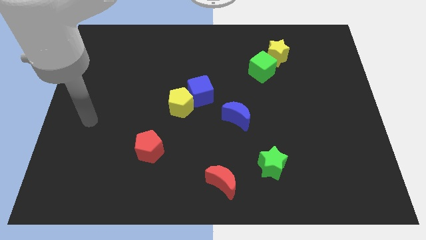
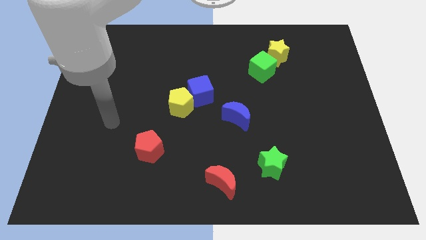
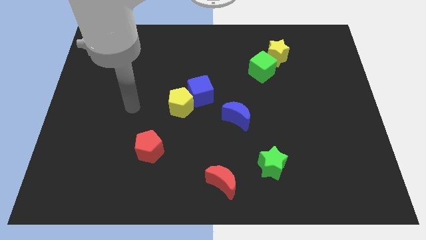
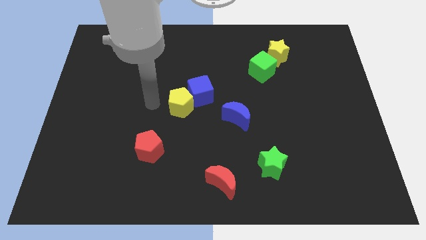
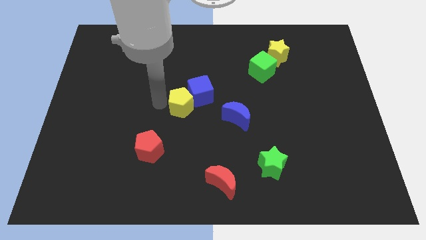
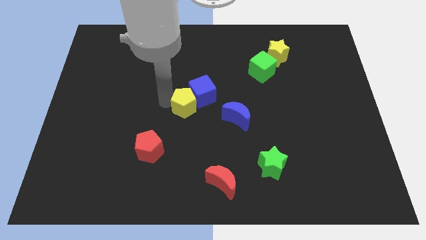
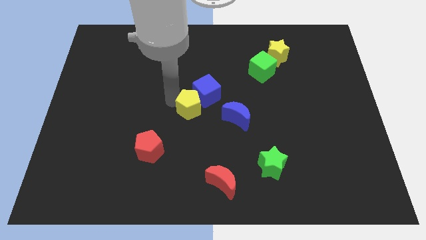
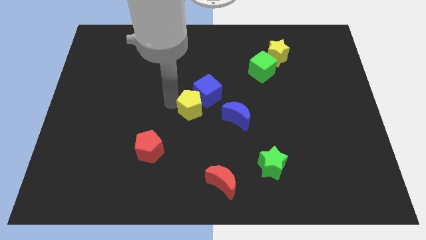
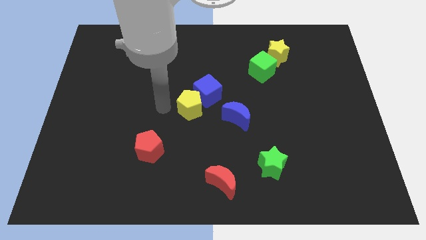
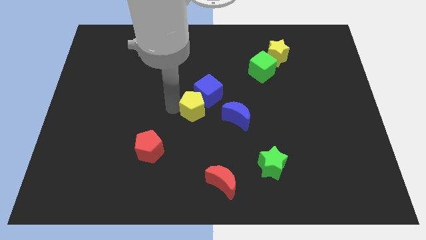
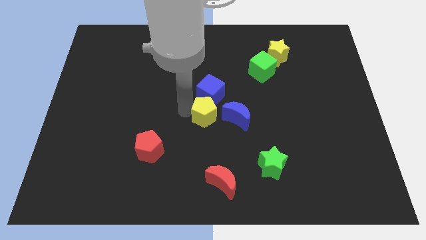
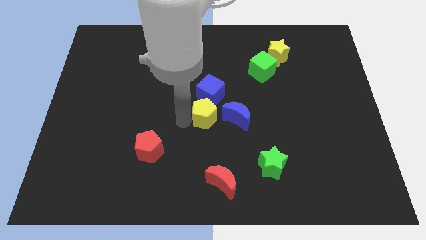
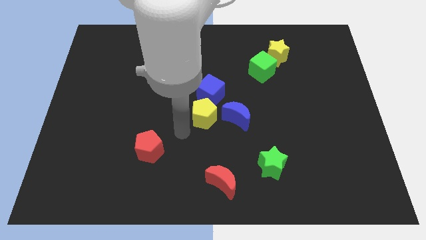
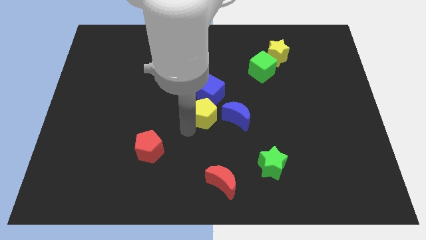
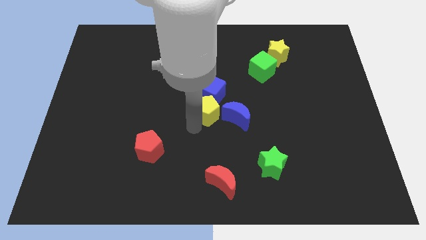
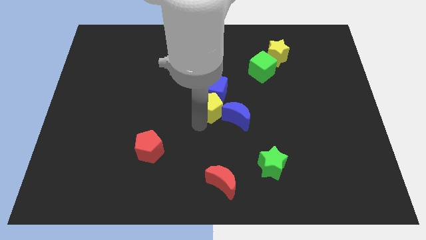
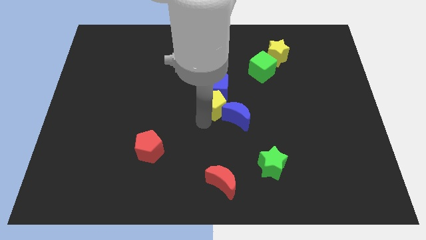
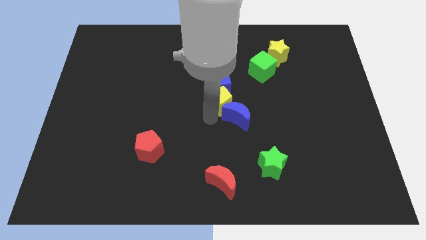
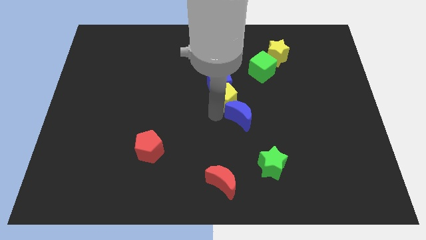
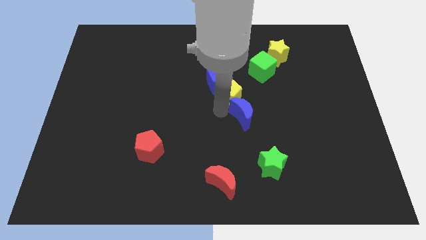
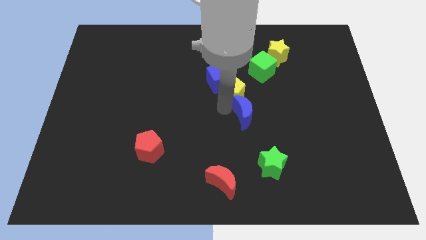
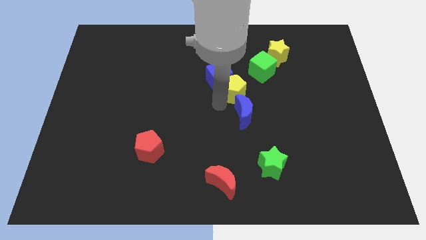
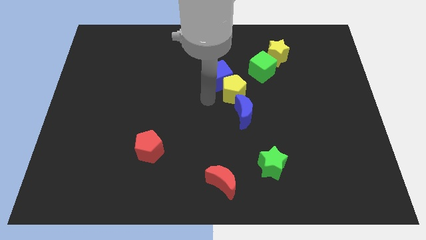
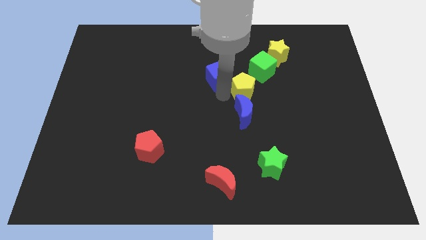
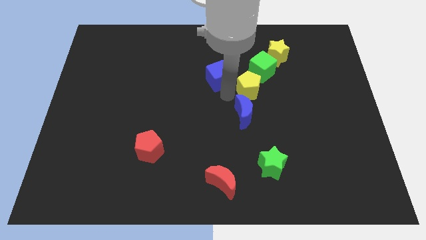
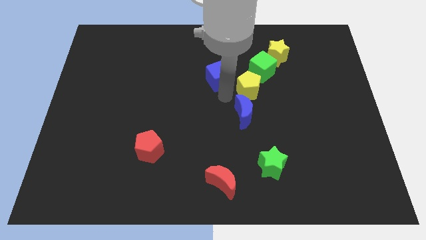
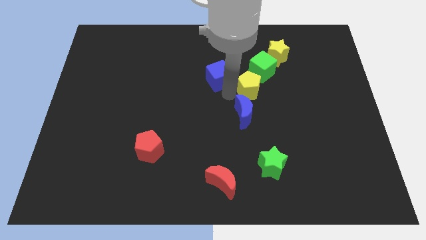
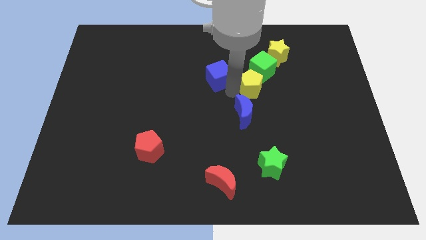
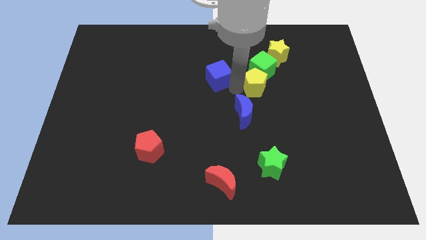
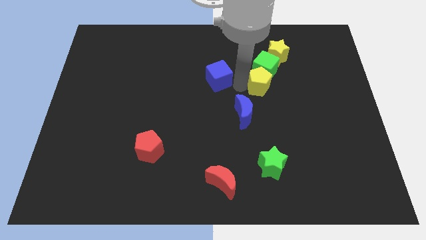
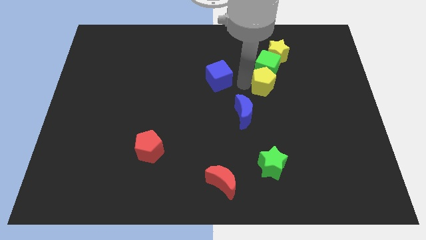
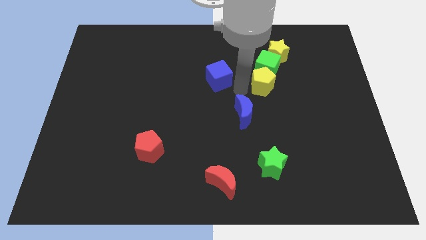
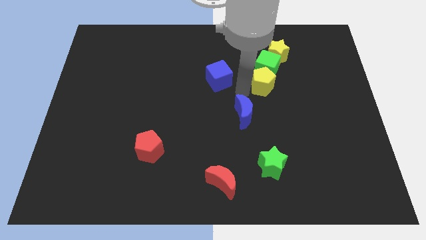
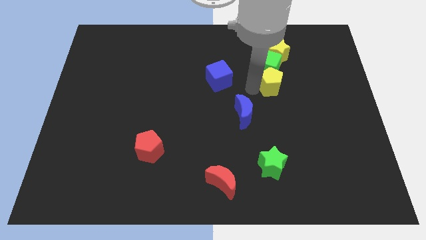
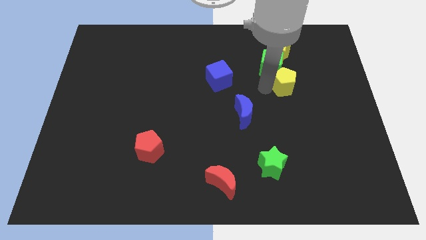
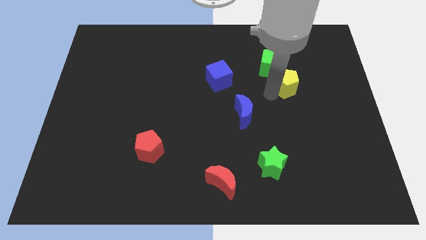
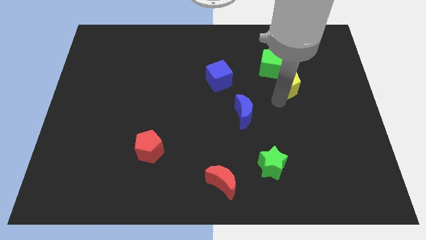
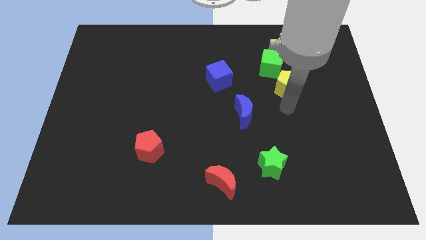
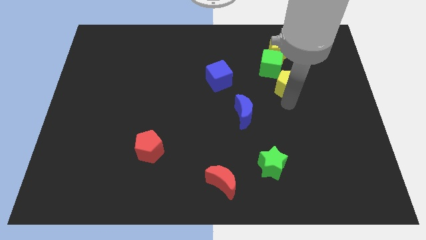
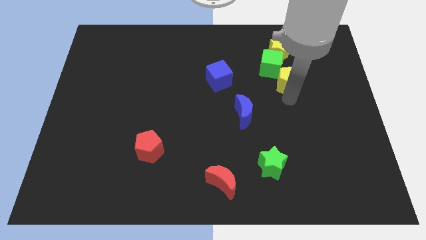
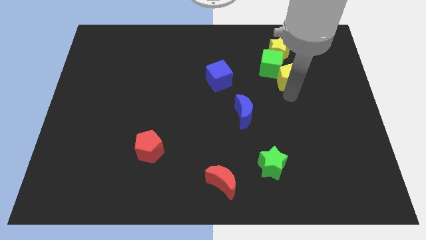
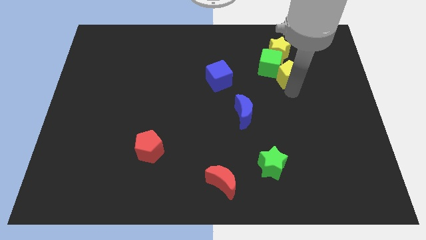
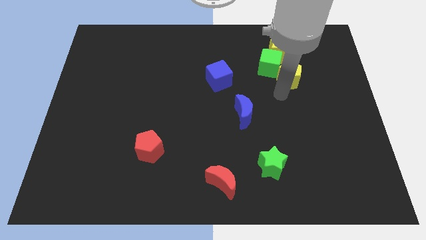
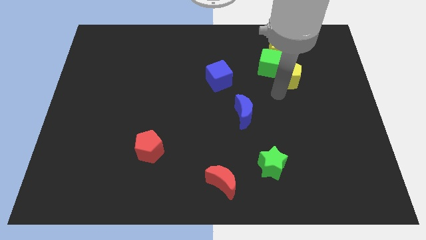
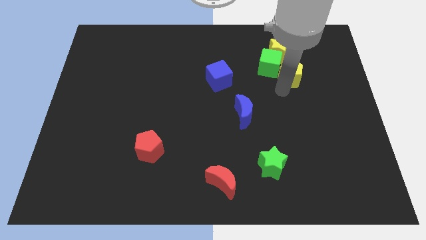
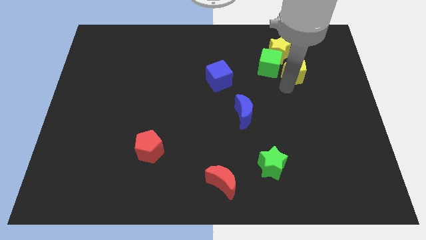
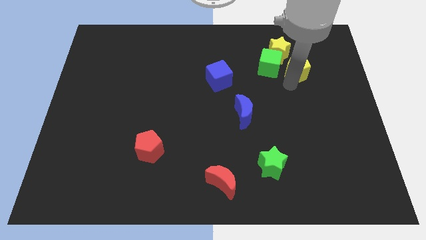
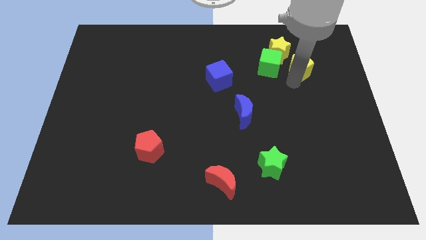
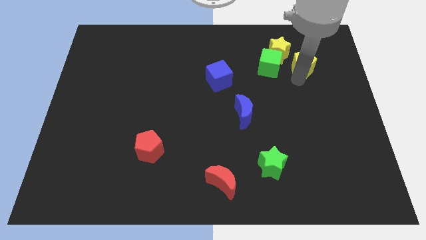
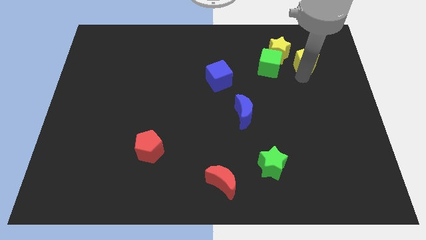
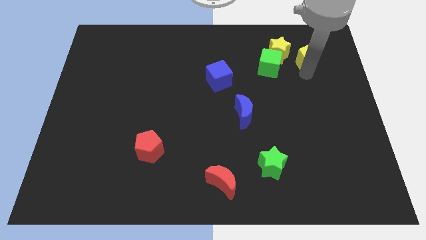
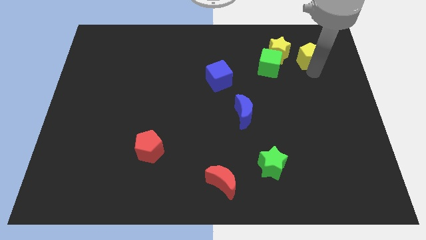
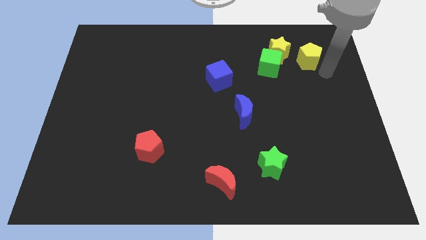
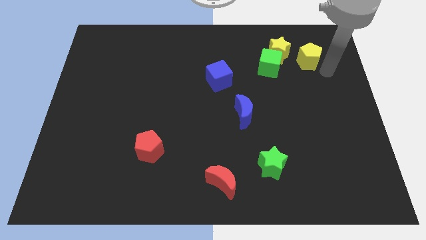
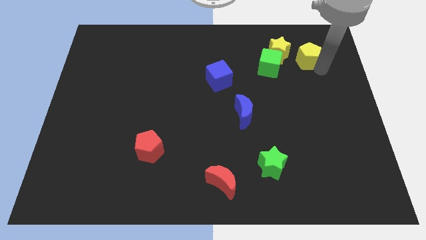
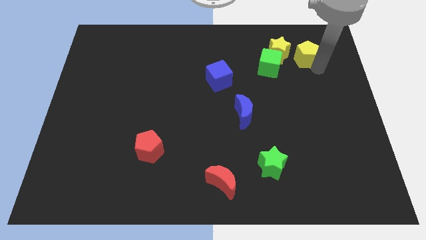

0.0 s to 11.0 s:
move the yellow pentagon to the top right of the green cube

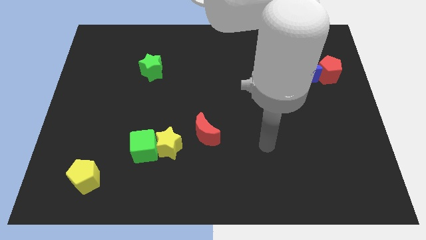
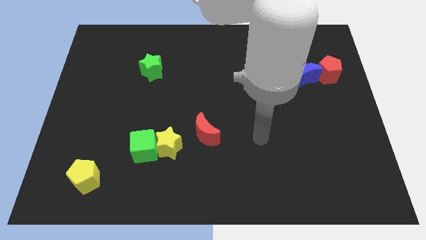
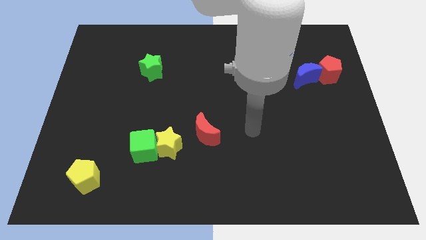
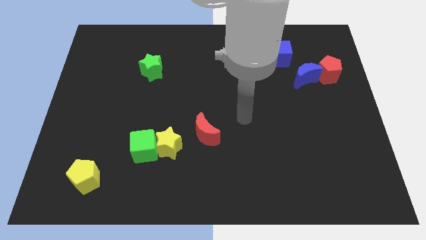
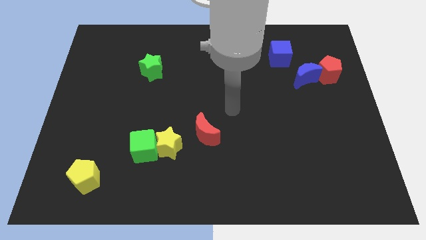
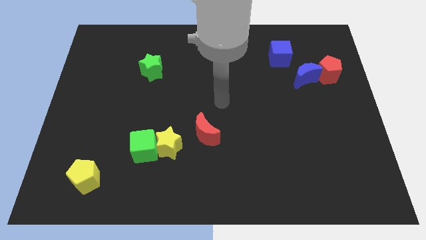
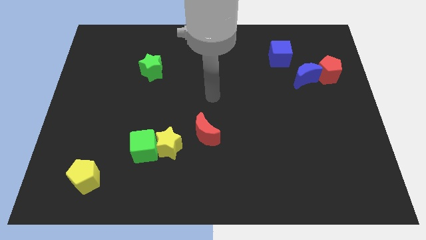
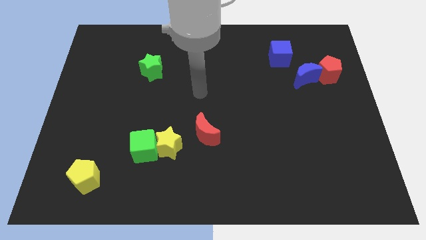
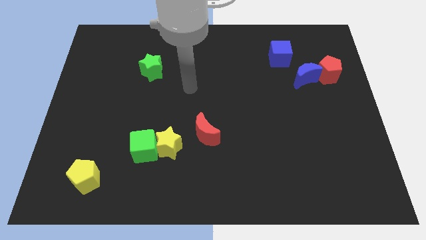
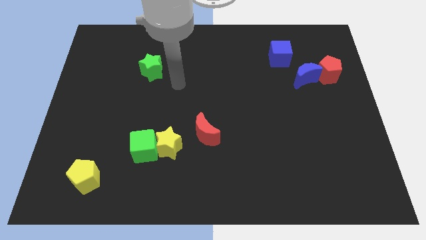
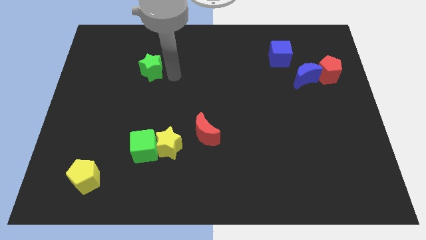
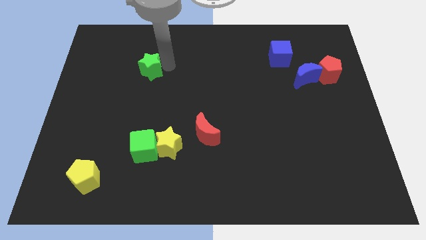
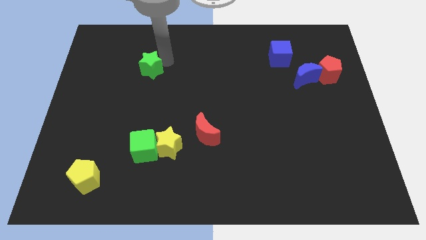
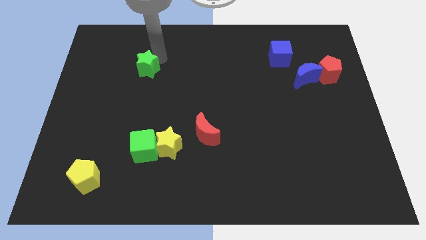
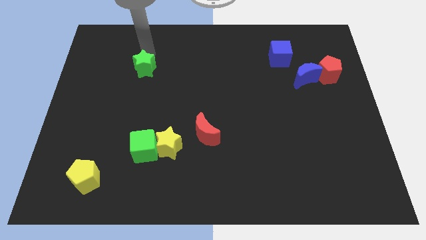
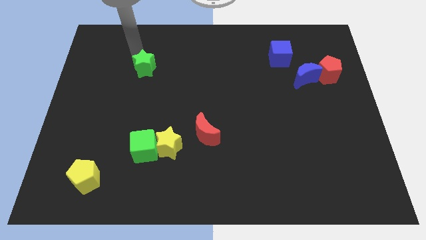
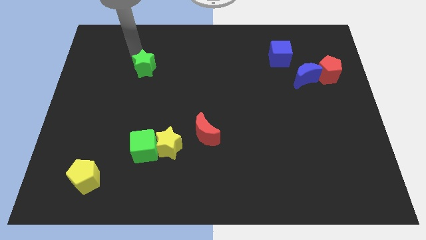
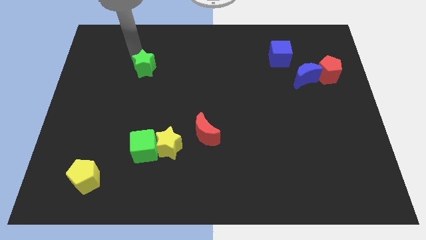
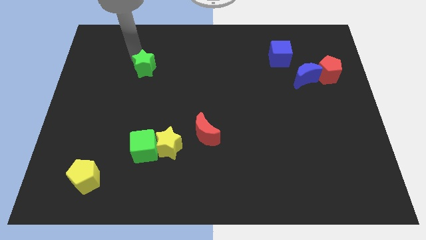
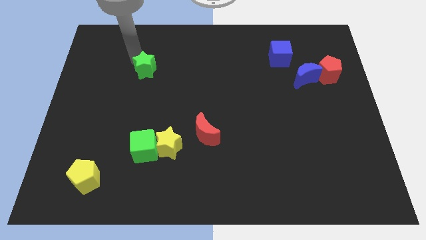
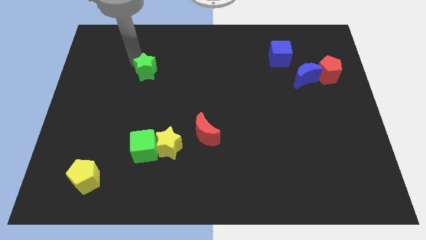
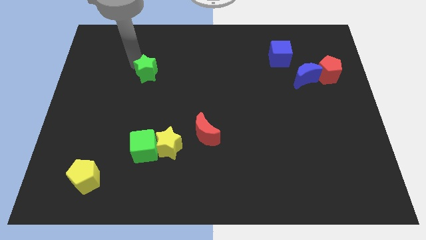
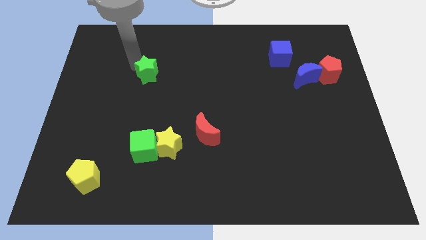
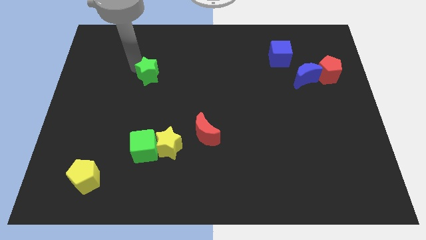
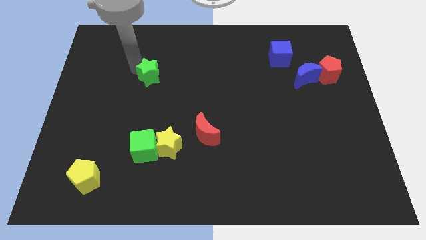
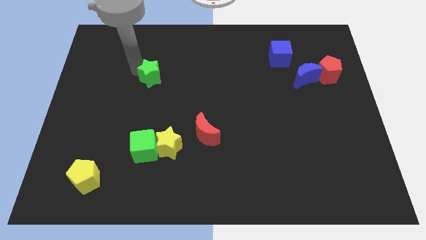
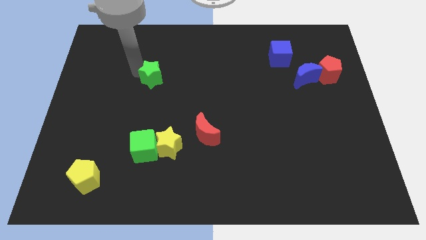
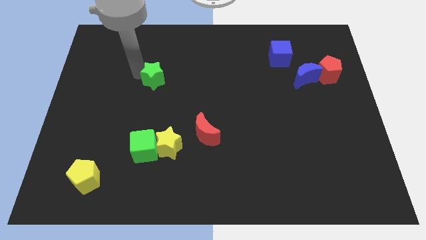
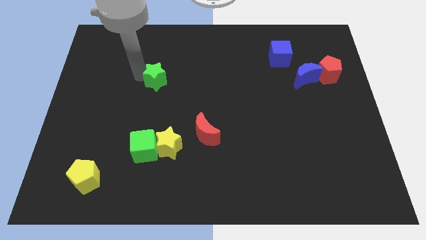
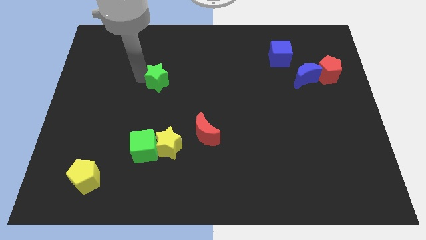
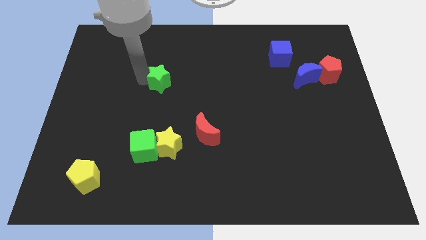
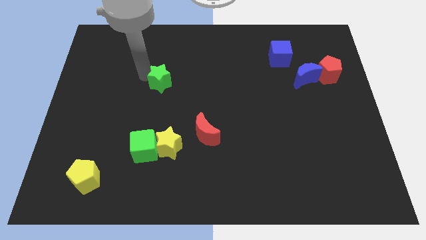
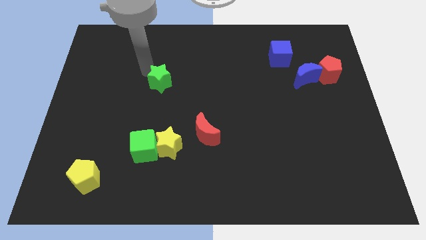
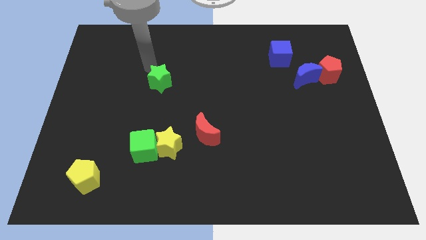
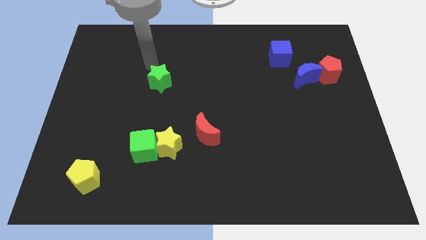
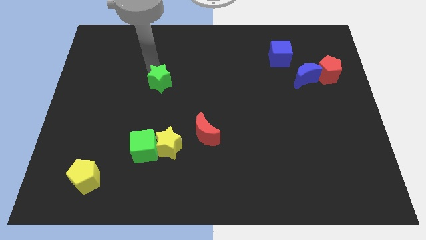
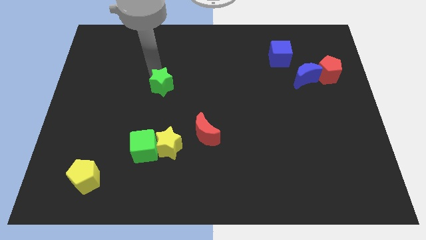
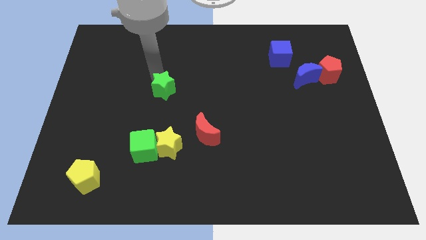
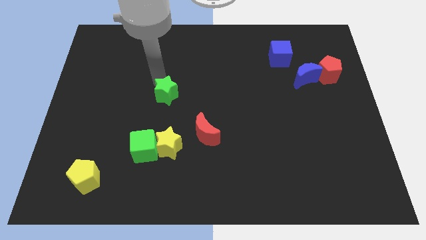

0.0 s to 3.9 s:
slide the green star to the top side of the yellow star
